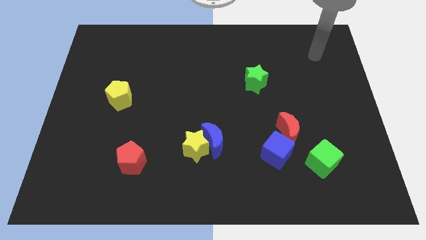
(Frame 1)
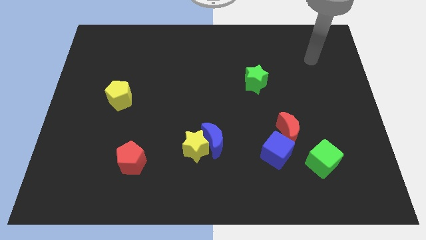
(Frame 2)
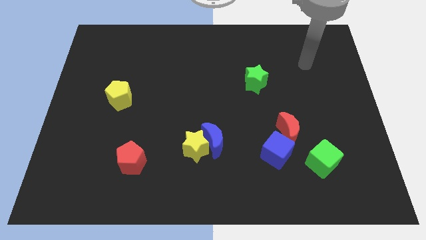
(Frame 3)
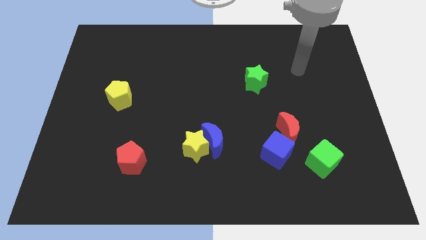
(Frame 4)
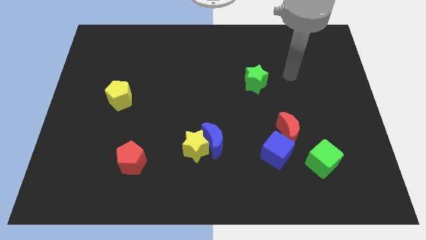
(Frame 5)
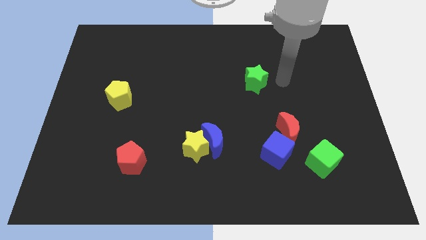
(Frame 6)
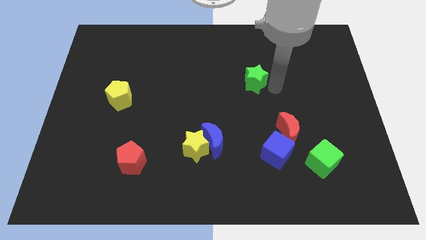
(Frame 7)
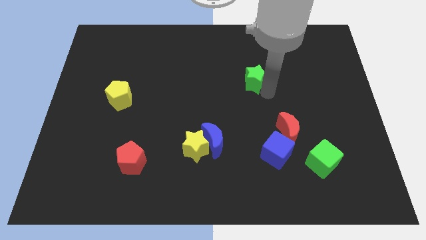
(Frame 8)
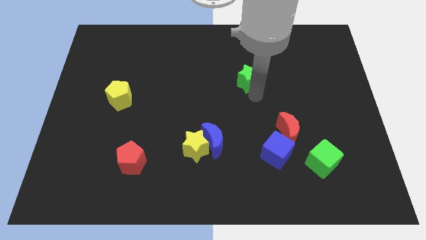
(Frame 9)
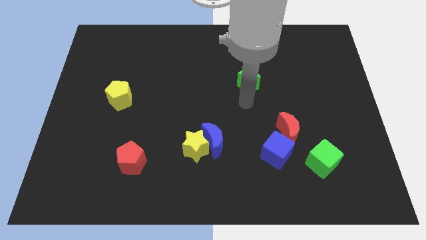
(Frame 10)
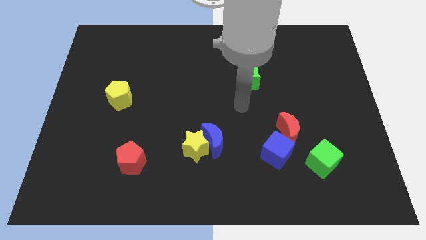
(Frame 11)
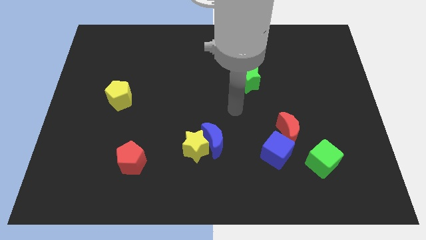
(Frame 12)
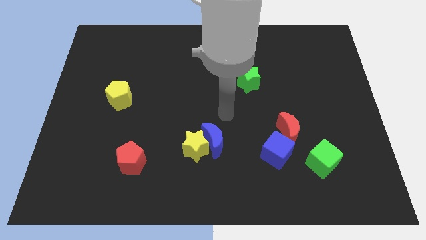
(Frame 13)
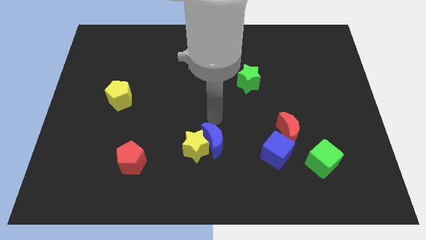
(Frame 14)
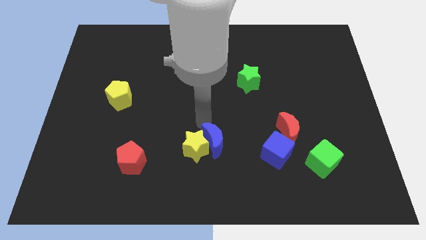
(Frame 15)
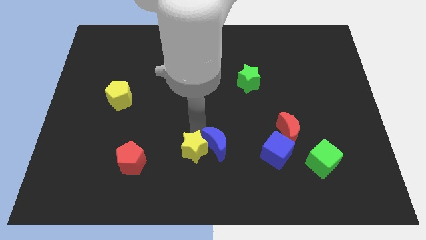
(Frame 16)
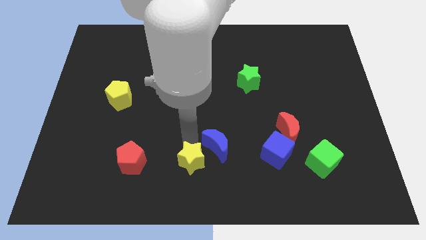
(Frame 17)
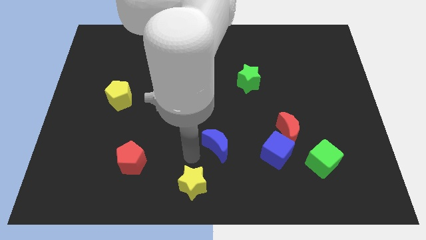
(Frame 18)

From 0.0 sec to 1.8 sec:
separate the blue moon from the yellow star

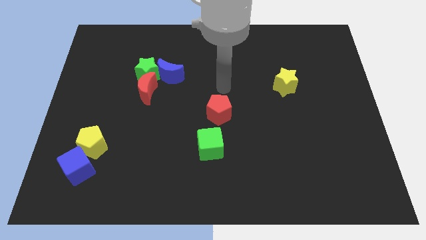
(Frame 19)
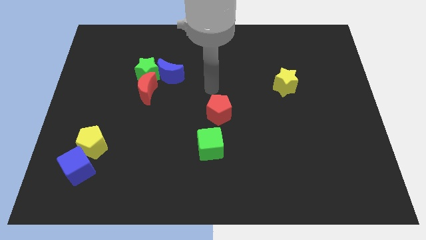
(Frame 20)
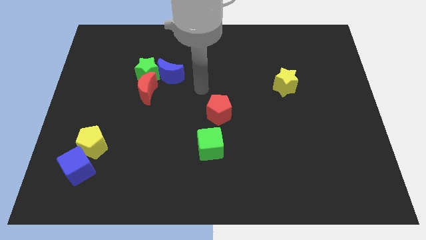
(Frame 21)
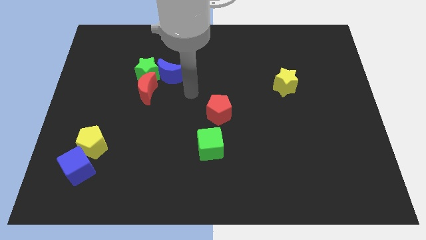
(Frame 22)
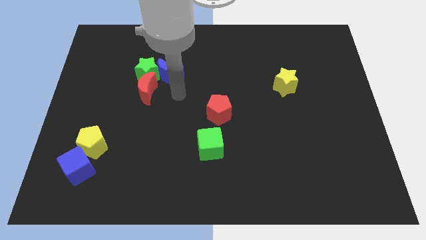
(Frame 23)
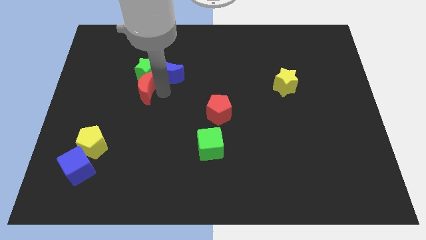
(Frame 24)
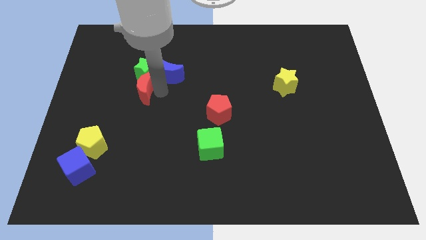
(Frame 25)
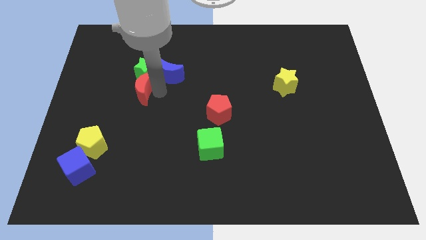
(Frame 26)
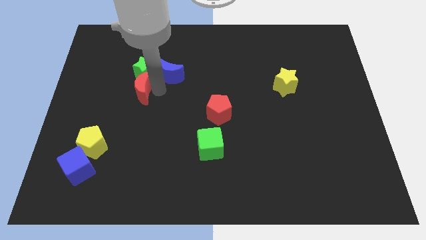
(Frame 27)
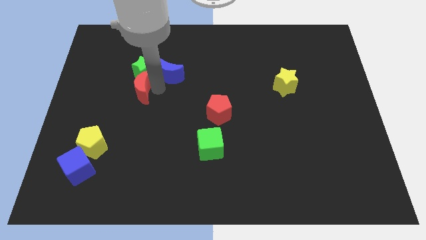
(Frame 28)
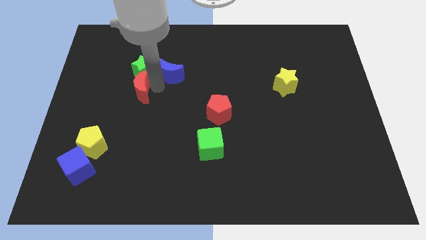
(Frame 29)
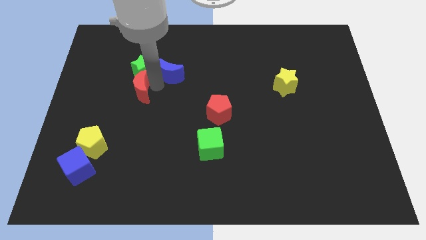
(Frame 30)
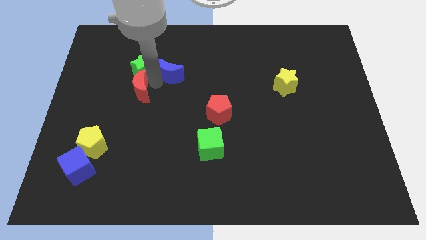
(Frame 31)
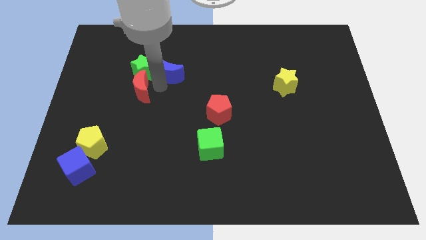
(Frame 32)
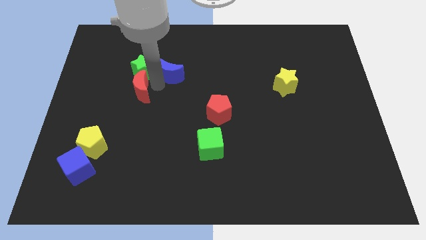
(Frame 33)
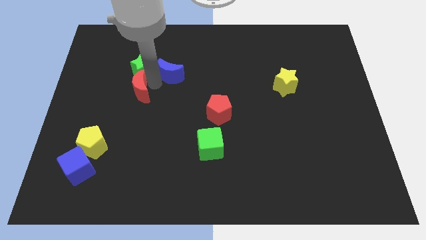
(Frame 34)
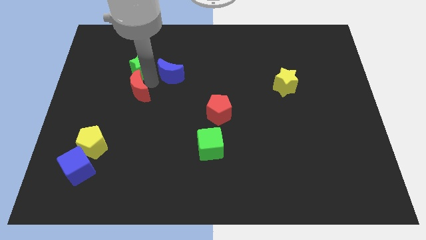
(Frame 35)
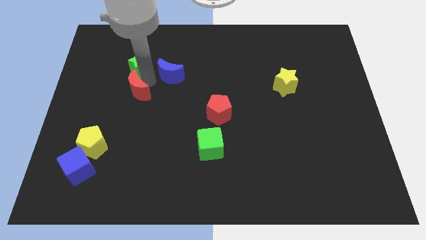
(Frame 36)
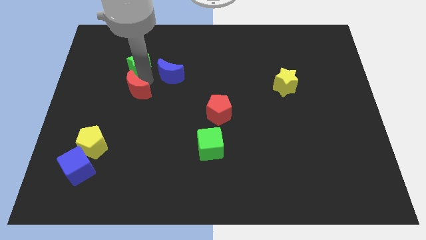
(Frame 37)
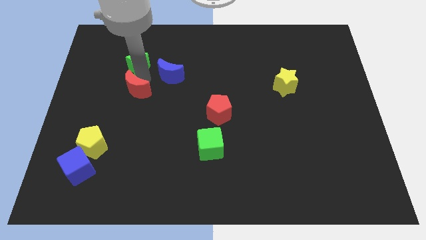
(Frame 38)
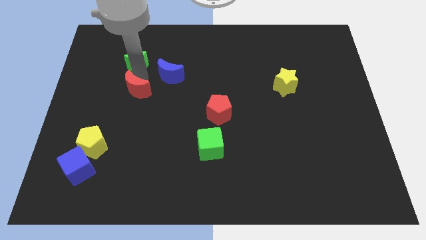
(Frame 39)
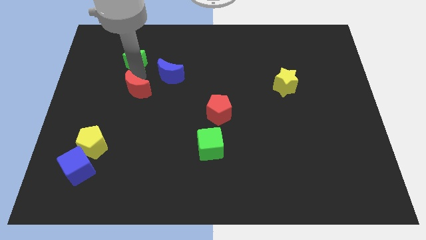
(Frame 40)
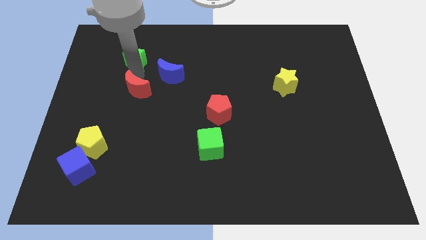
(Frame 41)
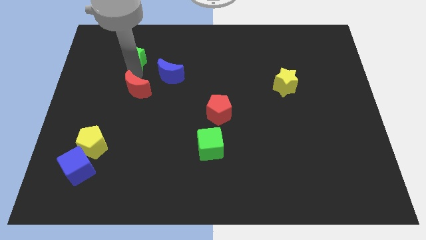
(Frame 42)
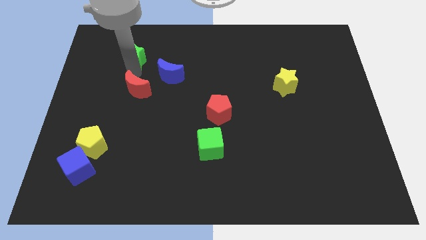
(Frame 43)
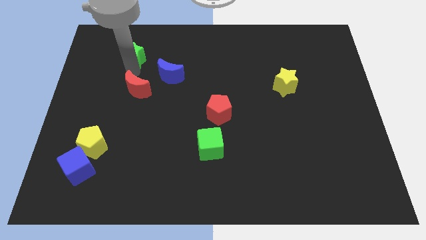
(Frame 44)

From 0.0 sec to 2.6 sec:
move the green star away from the red moon and blue moon

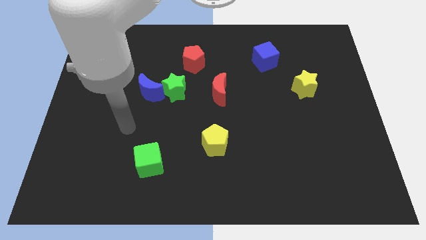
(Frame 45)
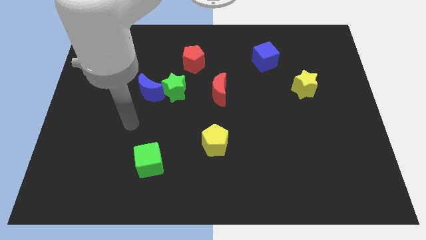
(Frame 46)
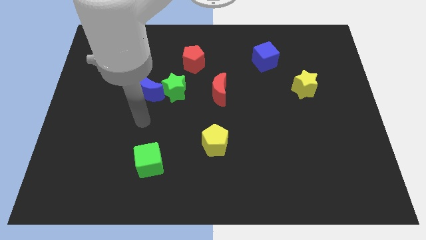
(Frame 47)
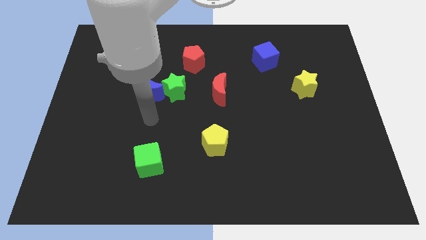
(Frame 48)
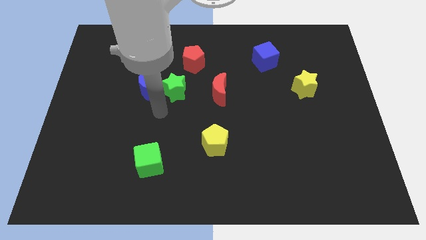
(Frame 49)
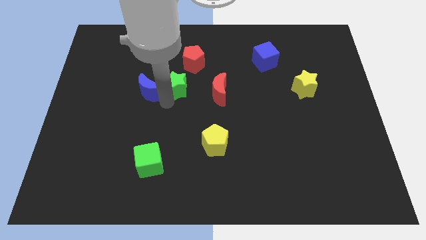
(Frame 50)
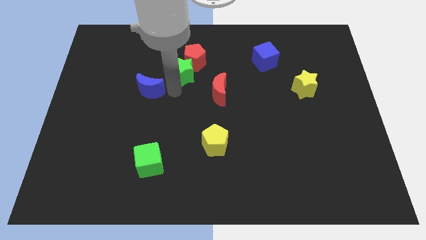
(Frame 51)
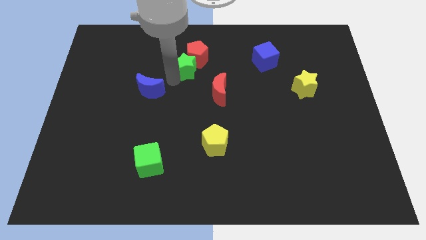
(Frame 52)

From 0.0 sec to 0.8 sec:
move the blue moon away from the green star

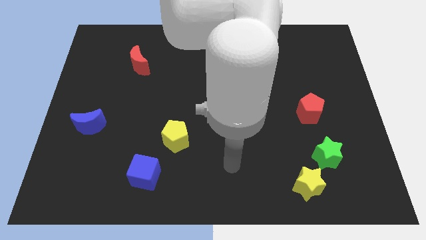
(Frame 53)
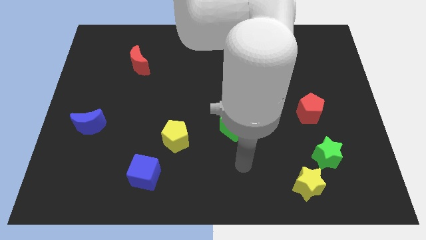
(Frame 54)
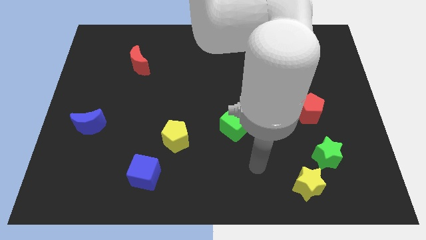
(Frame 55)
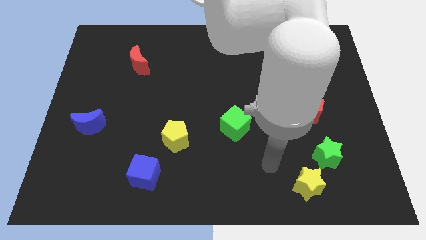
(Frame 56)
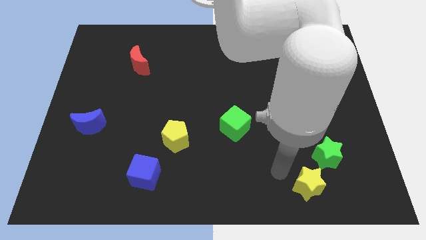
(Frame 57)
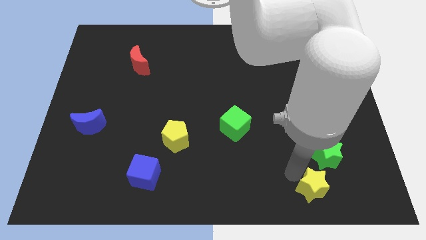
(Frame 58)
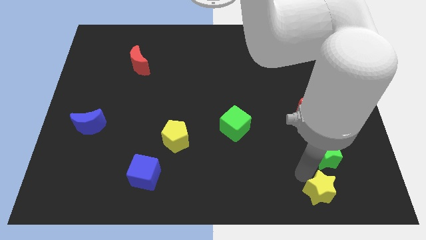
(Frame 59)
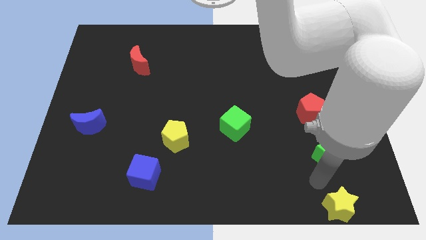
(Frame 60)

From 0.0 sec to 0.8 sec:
pull the green star apart from the yellow star

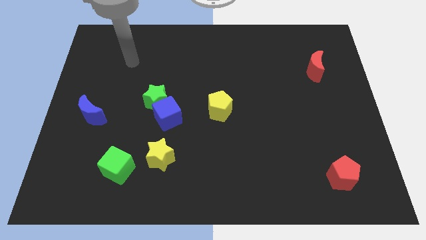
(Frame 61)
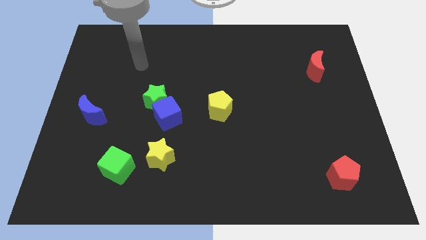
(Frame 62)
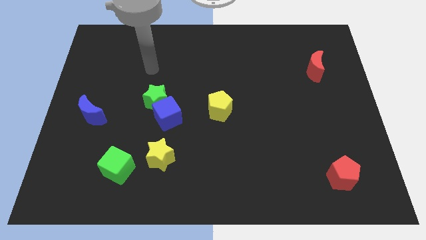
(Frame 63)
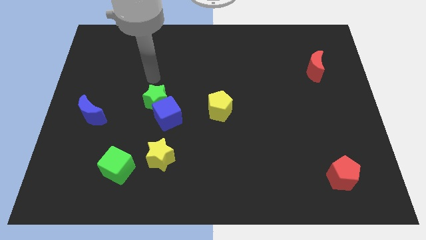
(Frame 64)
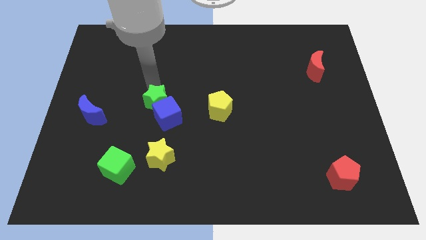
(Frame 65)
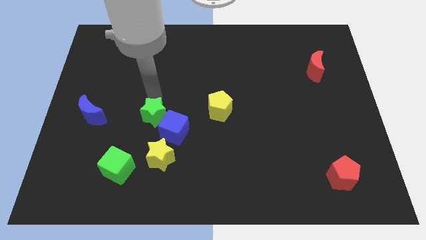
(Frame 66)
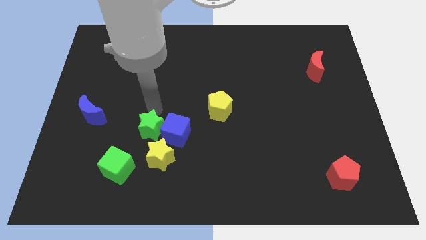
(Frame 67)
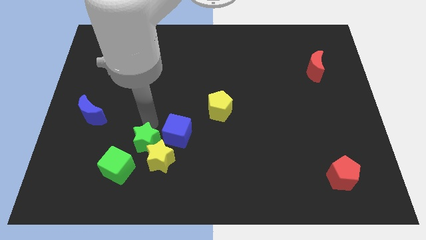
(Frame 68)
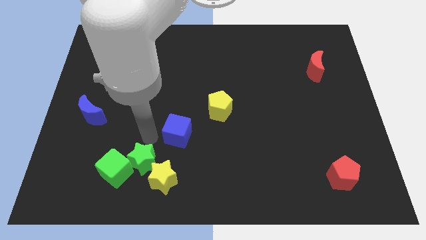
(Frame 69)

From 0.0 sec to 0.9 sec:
pull the blue cube apart from the green star

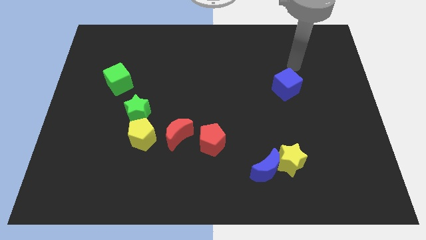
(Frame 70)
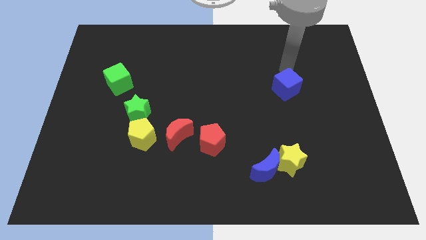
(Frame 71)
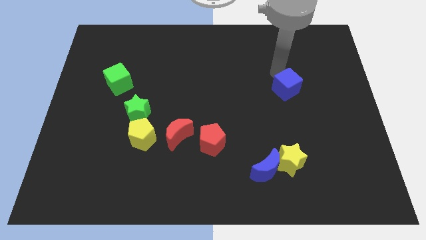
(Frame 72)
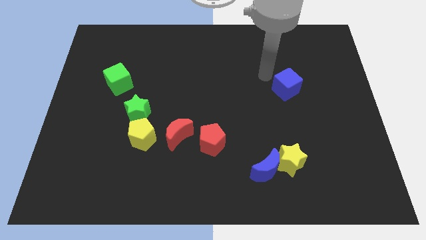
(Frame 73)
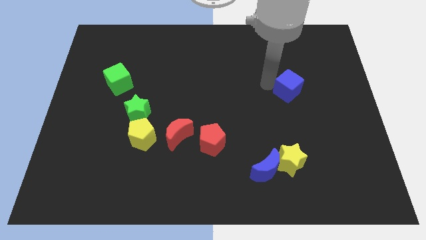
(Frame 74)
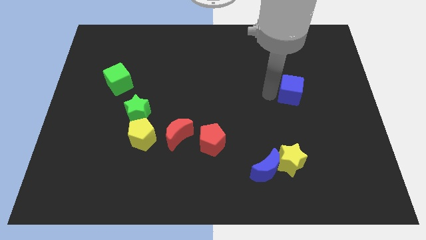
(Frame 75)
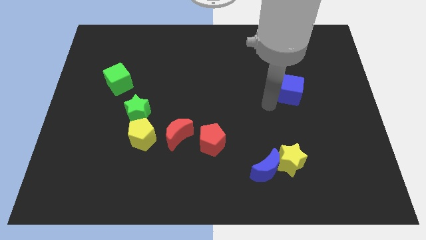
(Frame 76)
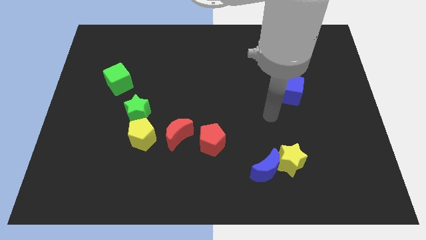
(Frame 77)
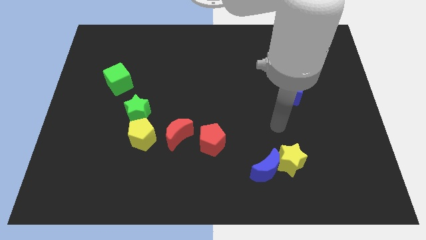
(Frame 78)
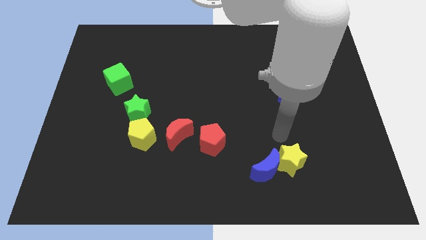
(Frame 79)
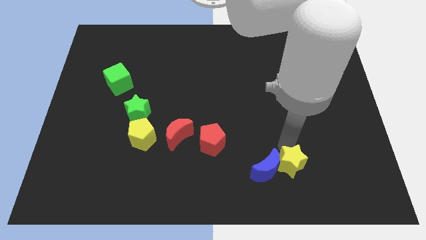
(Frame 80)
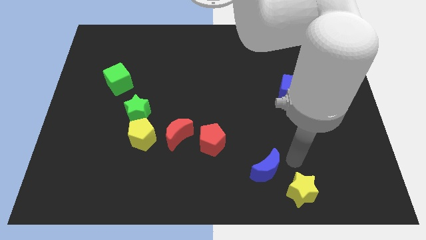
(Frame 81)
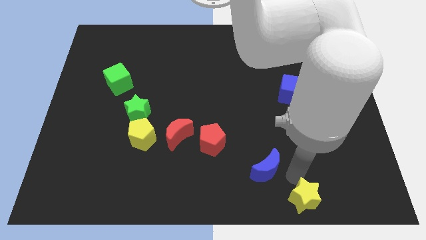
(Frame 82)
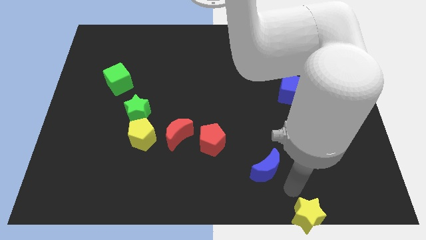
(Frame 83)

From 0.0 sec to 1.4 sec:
move the blue moon away from the yellow star

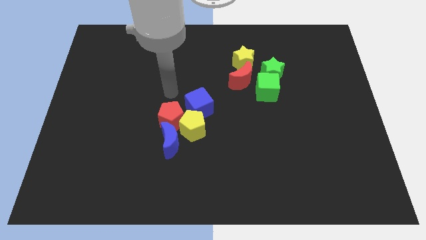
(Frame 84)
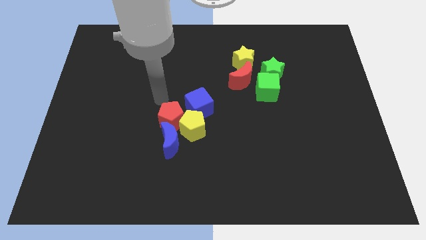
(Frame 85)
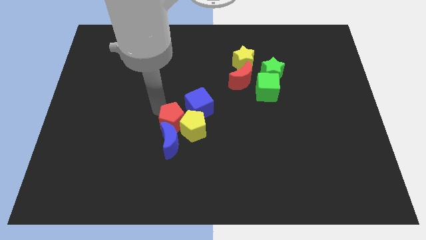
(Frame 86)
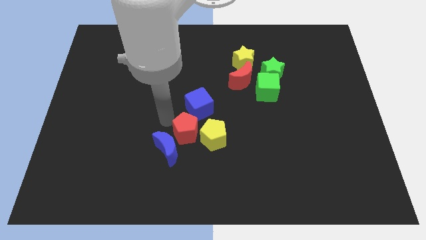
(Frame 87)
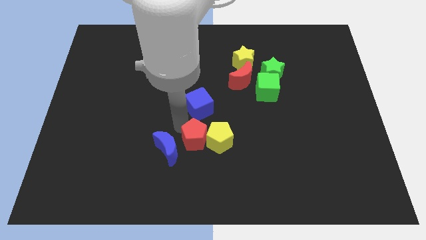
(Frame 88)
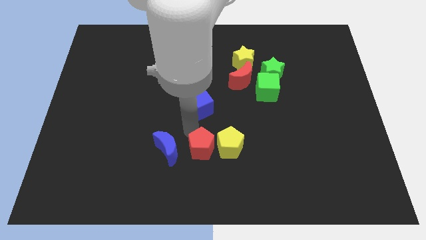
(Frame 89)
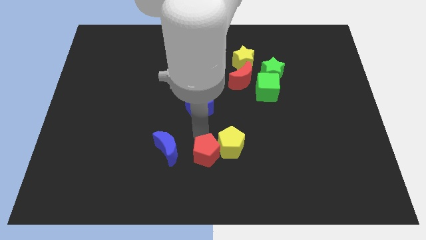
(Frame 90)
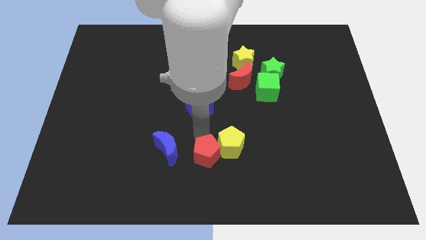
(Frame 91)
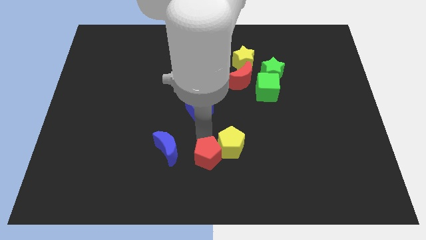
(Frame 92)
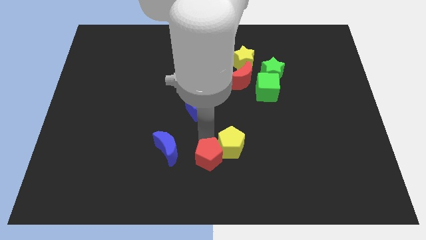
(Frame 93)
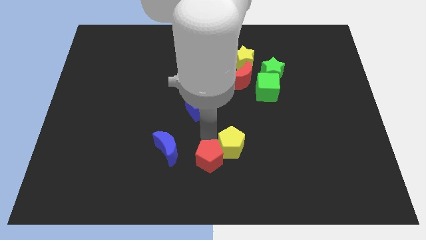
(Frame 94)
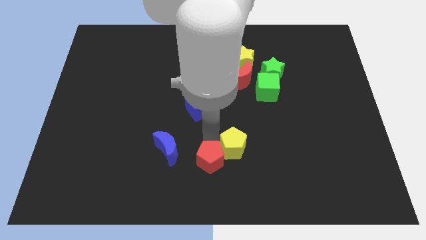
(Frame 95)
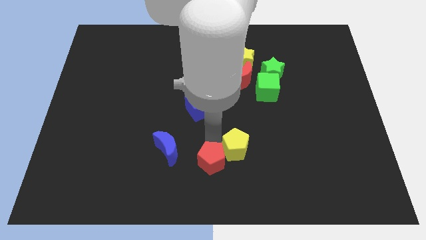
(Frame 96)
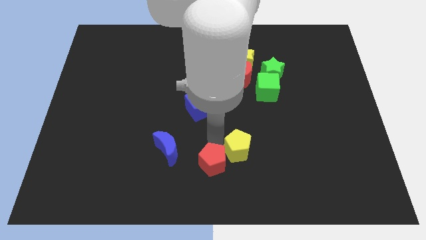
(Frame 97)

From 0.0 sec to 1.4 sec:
separate the yellow pentagon from the red pentagon, blue cube, and blue moon
